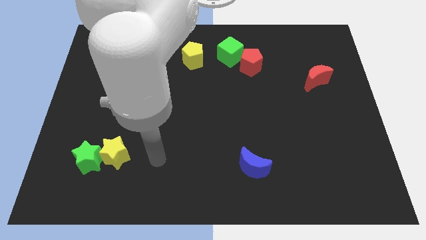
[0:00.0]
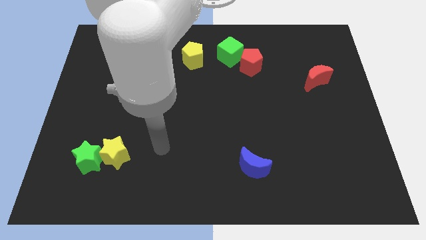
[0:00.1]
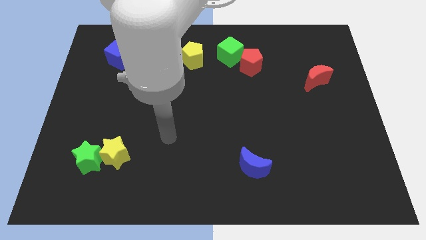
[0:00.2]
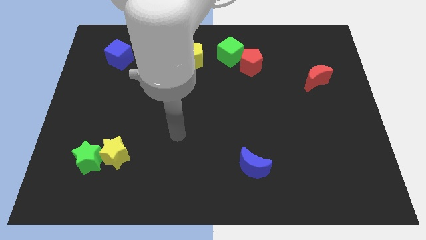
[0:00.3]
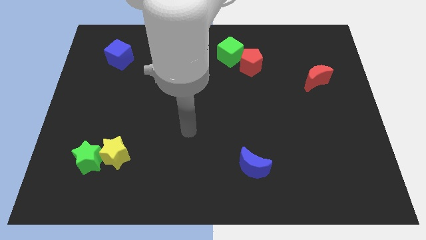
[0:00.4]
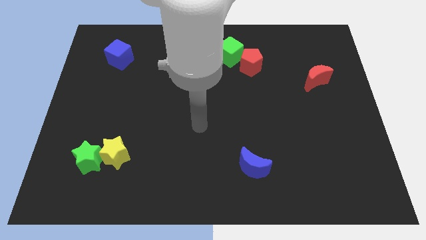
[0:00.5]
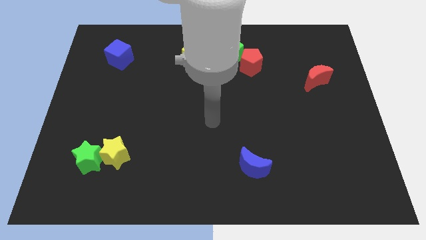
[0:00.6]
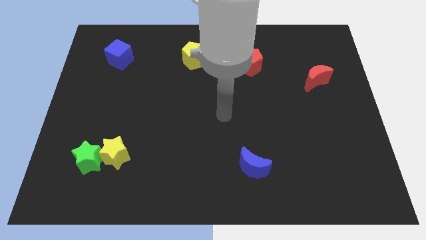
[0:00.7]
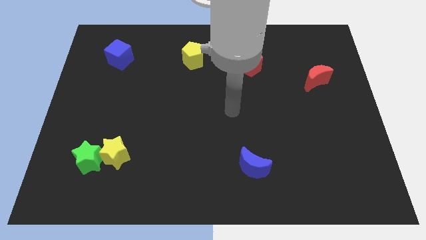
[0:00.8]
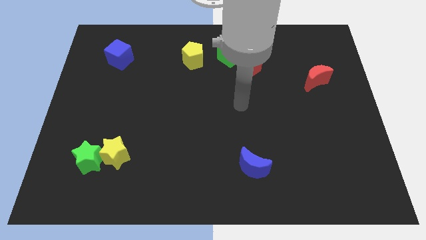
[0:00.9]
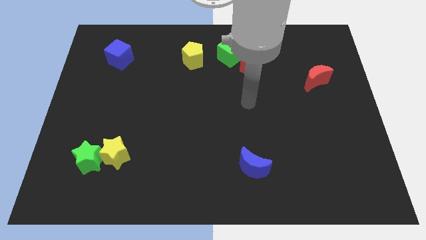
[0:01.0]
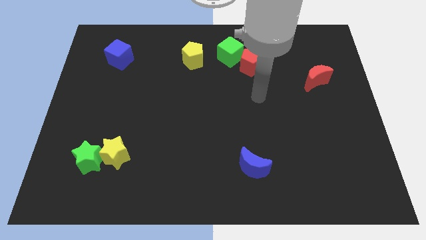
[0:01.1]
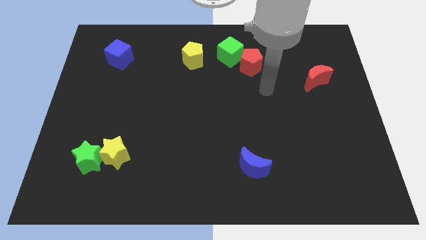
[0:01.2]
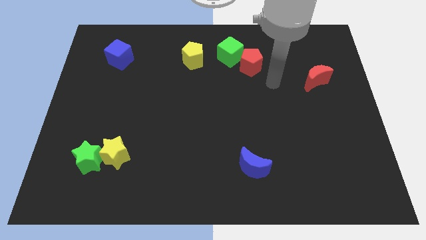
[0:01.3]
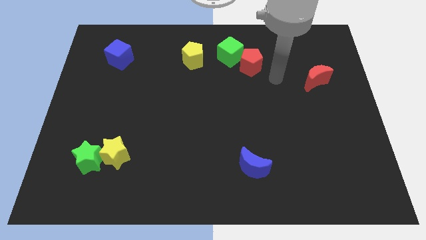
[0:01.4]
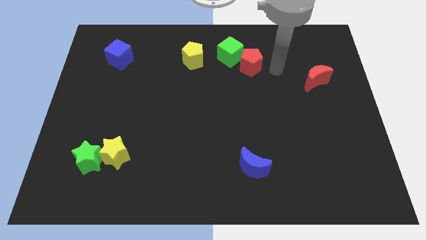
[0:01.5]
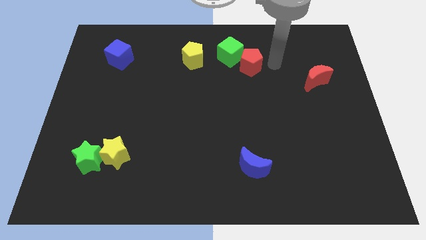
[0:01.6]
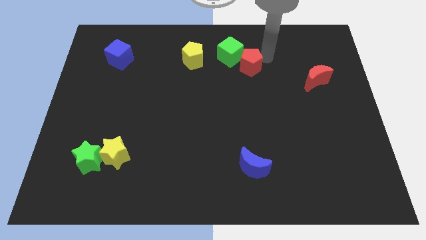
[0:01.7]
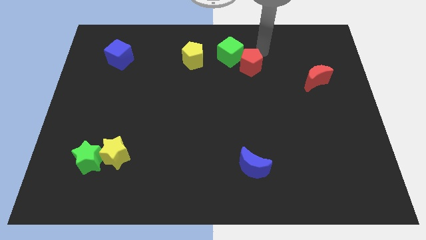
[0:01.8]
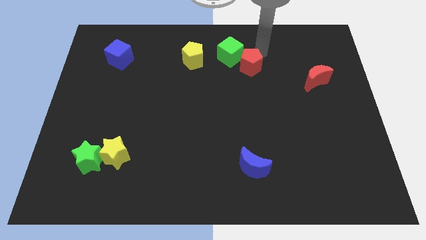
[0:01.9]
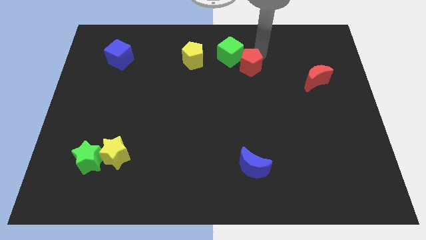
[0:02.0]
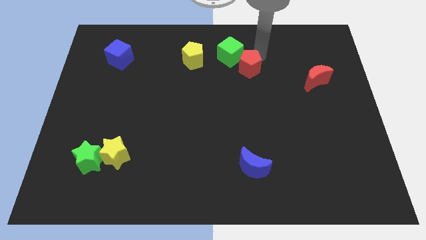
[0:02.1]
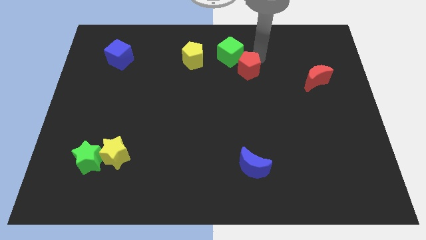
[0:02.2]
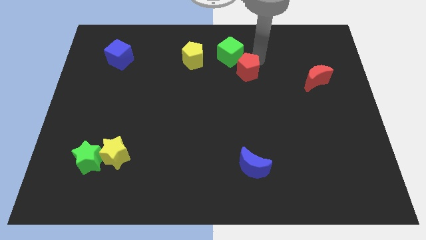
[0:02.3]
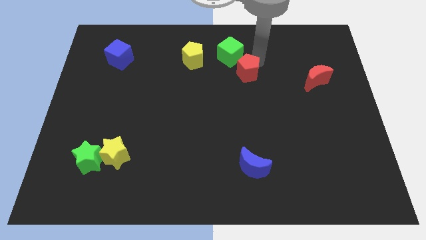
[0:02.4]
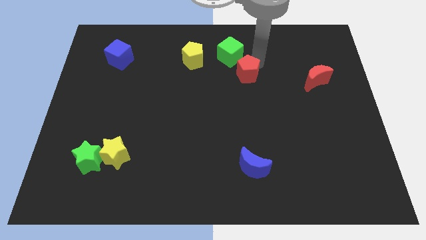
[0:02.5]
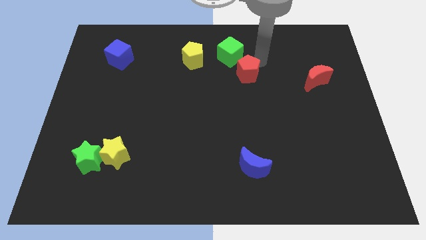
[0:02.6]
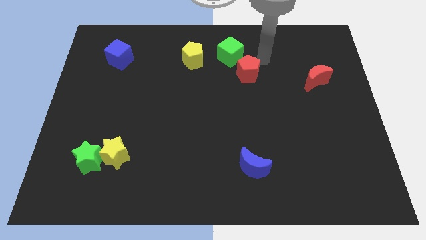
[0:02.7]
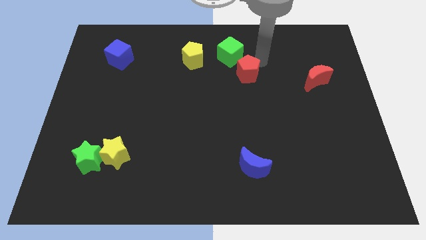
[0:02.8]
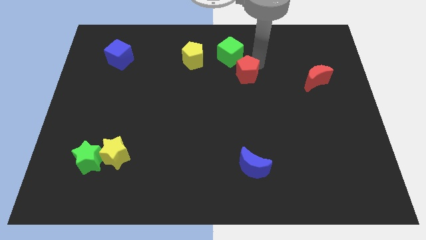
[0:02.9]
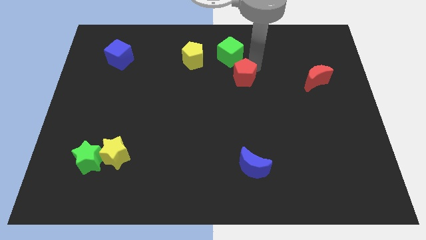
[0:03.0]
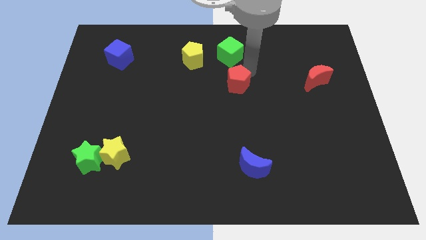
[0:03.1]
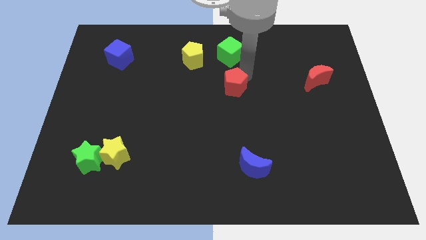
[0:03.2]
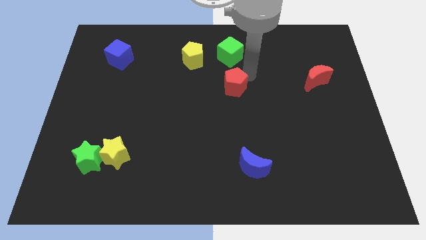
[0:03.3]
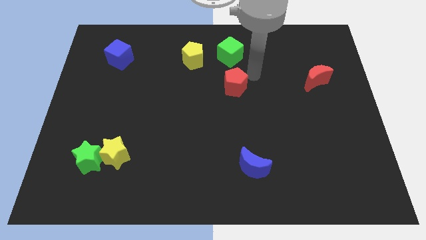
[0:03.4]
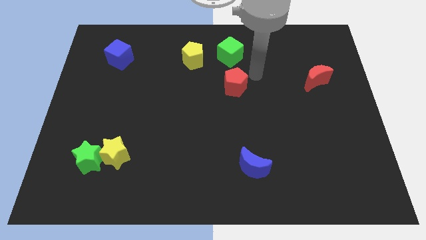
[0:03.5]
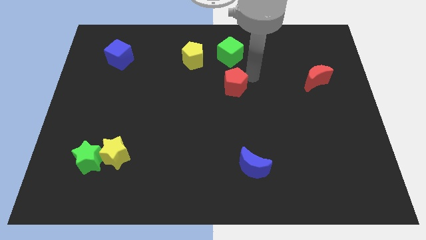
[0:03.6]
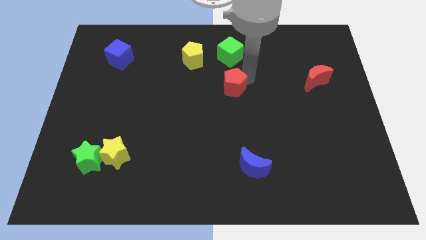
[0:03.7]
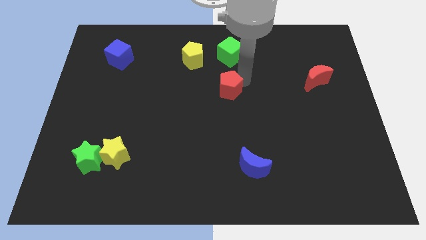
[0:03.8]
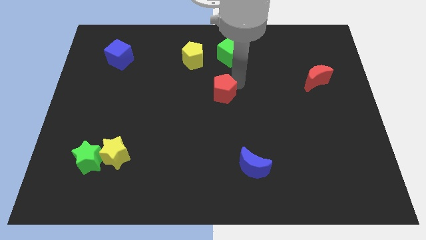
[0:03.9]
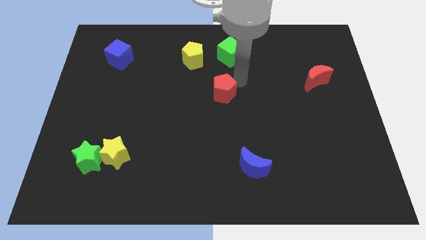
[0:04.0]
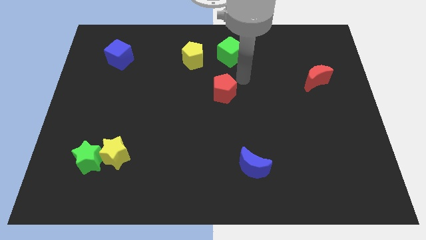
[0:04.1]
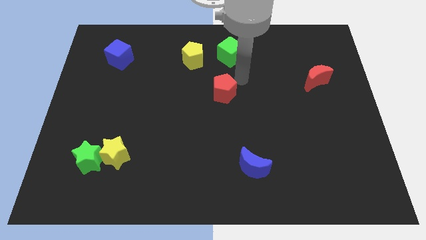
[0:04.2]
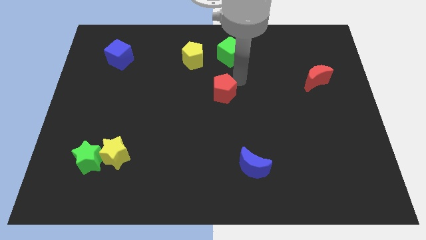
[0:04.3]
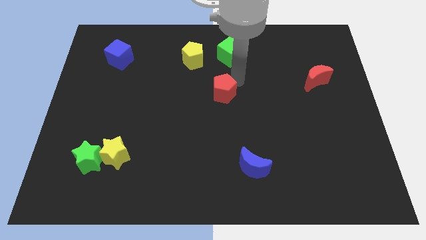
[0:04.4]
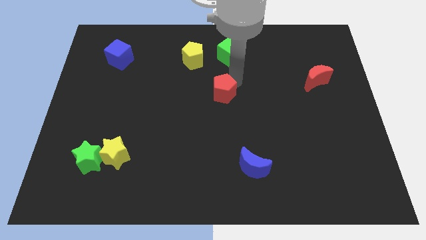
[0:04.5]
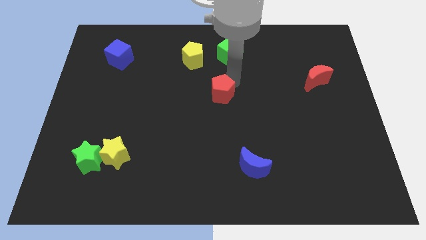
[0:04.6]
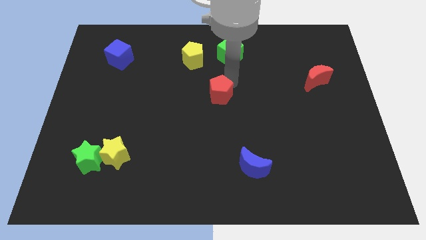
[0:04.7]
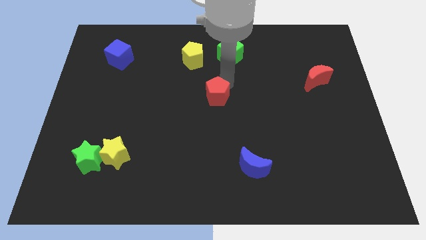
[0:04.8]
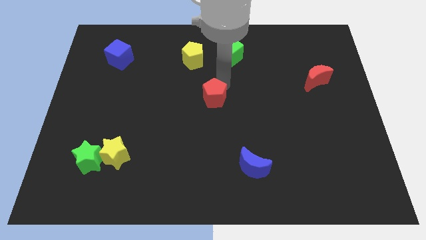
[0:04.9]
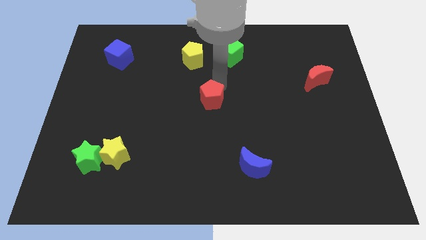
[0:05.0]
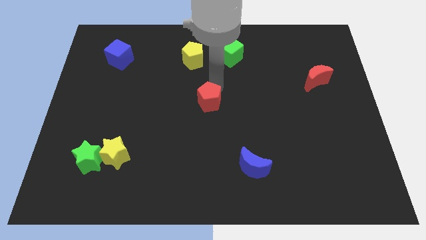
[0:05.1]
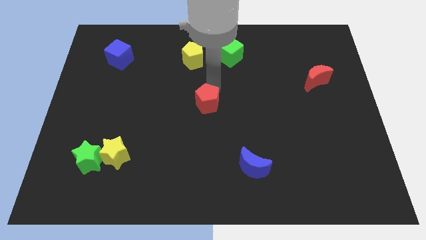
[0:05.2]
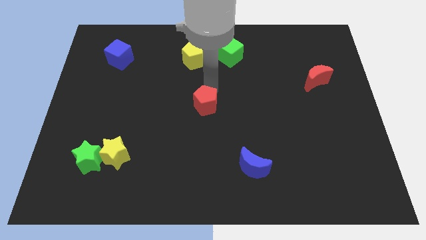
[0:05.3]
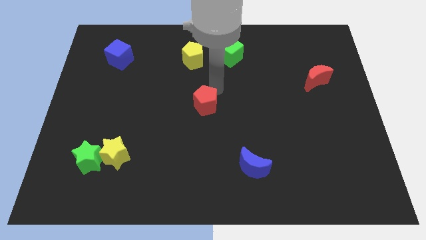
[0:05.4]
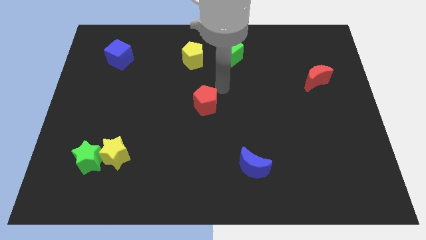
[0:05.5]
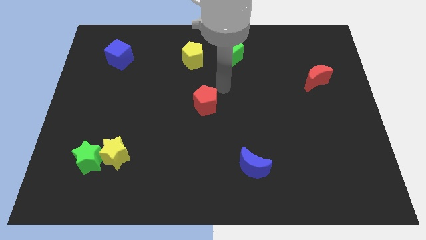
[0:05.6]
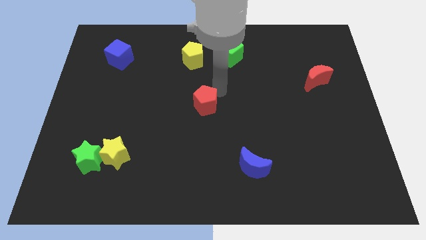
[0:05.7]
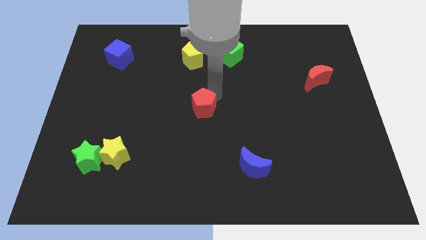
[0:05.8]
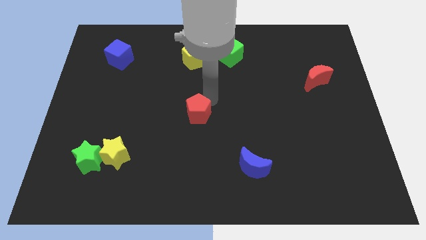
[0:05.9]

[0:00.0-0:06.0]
push the red pentagon down and to the left

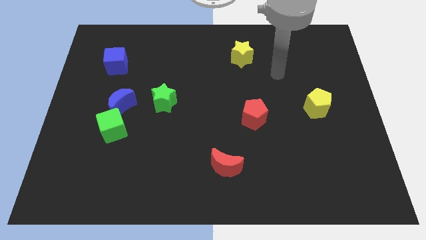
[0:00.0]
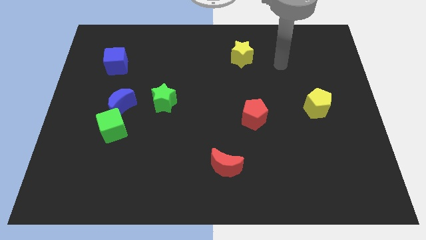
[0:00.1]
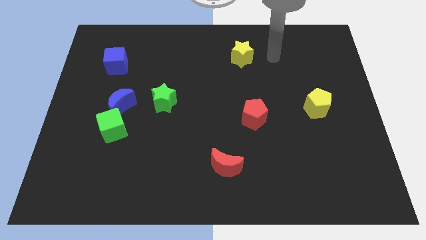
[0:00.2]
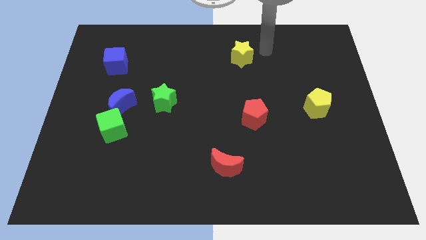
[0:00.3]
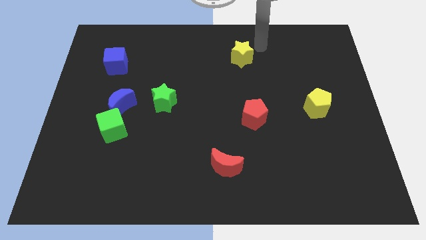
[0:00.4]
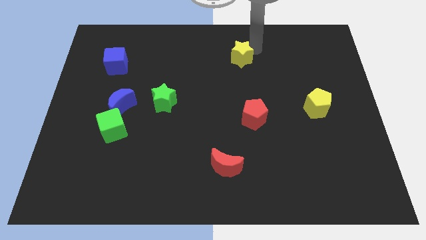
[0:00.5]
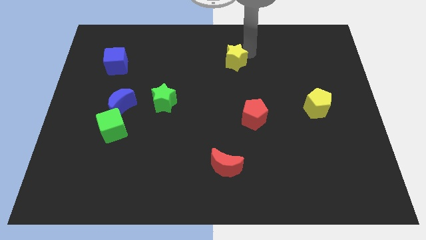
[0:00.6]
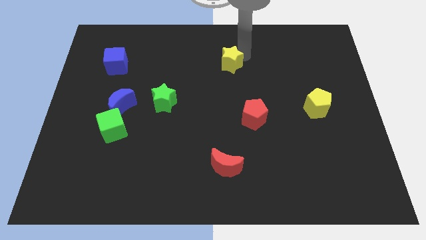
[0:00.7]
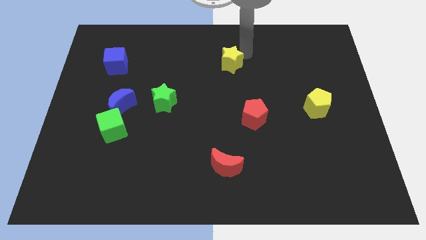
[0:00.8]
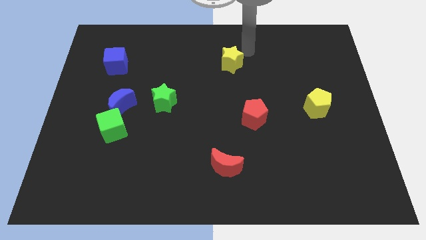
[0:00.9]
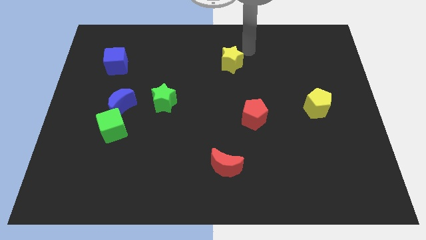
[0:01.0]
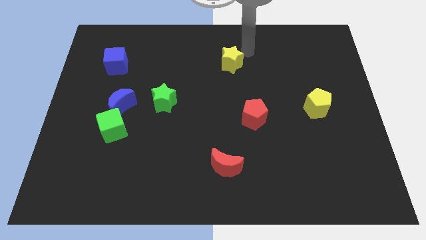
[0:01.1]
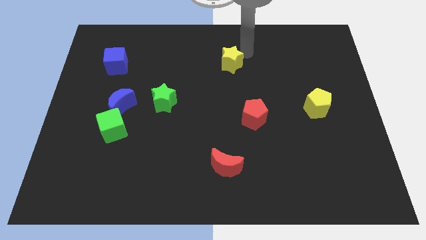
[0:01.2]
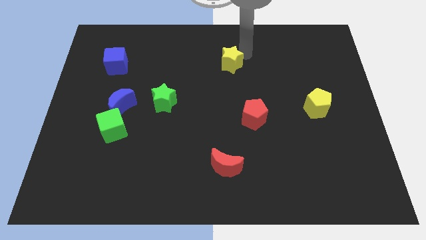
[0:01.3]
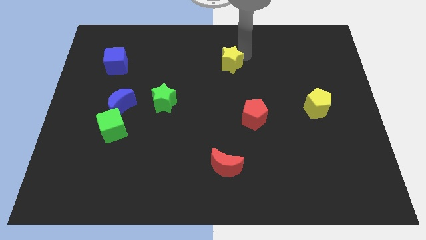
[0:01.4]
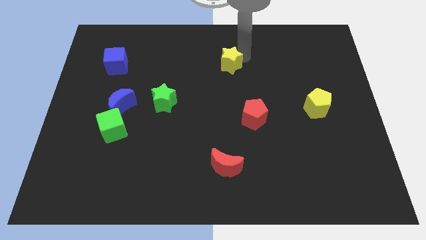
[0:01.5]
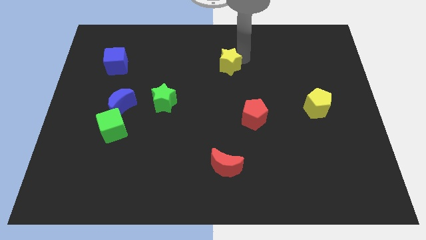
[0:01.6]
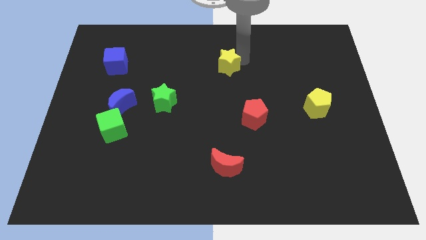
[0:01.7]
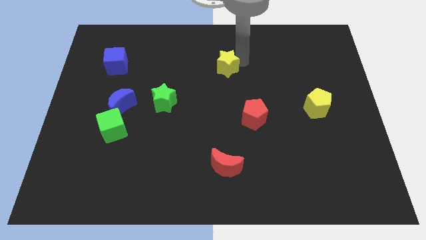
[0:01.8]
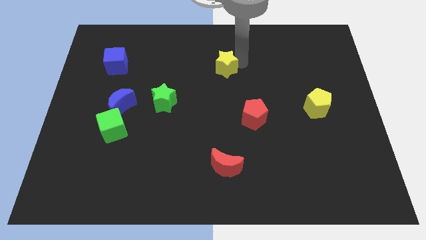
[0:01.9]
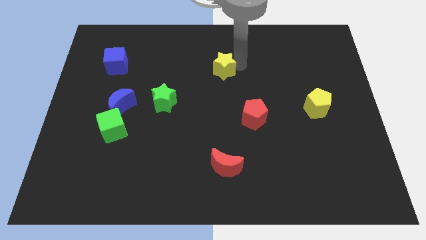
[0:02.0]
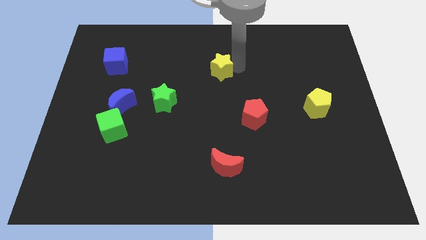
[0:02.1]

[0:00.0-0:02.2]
slide the yellow star diagonally down and left slightly

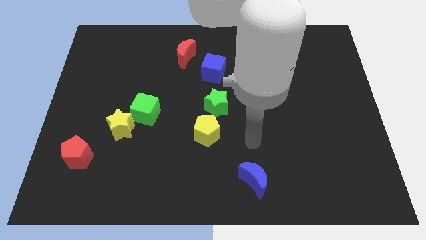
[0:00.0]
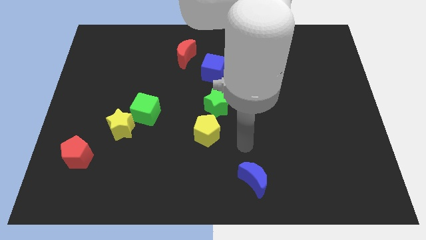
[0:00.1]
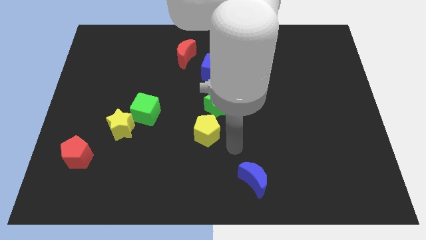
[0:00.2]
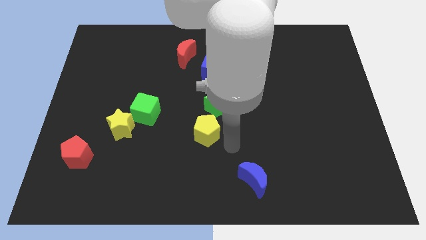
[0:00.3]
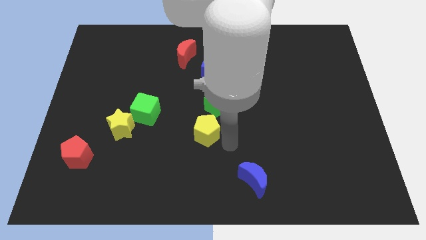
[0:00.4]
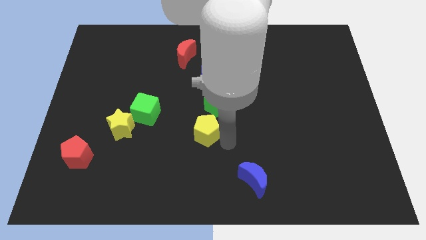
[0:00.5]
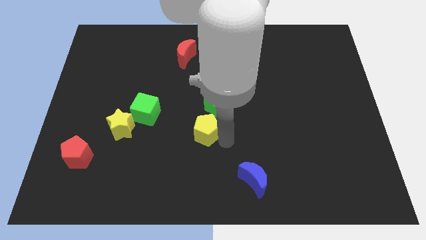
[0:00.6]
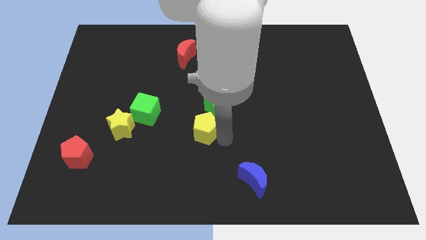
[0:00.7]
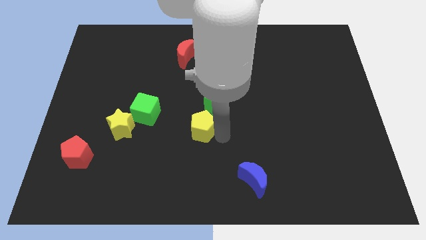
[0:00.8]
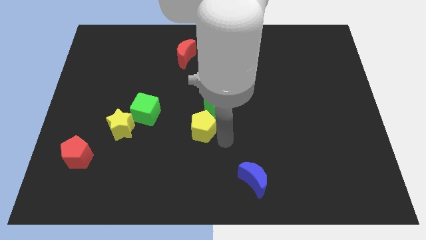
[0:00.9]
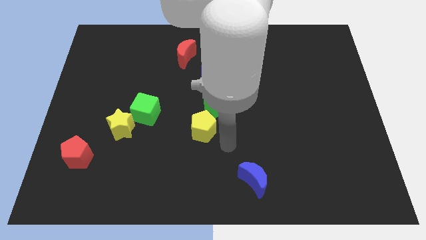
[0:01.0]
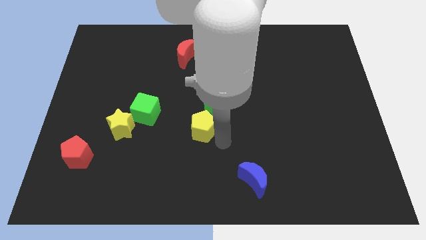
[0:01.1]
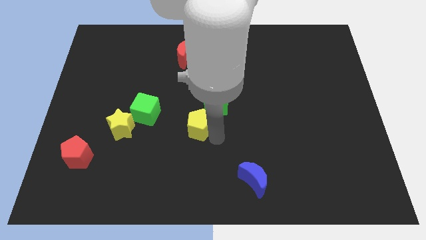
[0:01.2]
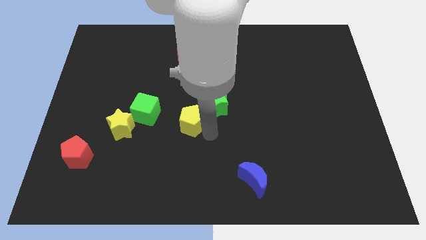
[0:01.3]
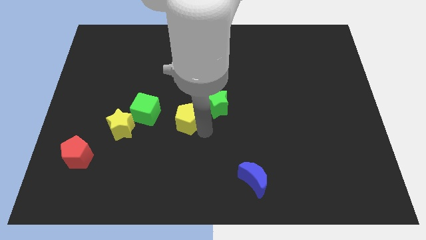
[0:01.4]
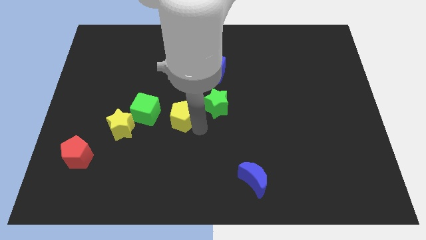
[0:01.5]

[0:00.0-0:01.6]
push the yellow pentagon a little upwards and then to the left
